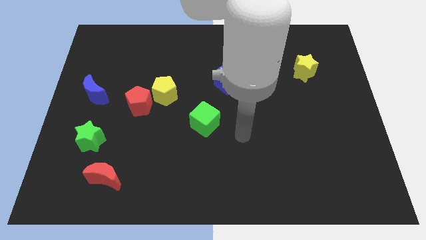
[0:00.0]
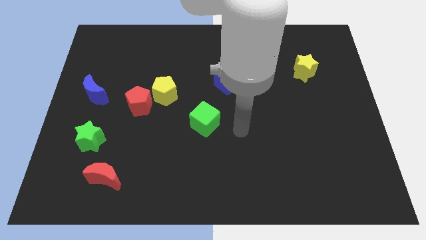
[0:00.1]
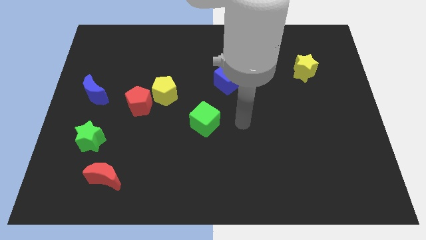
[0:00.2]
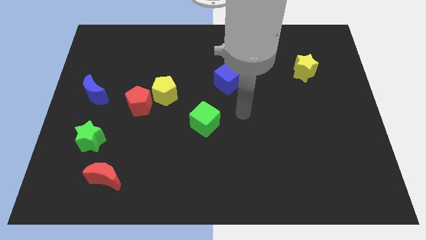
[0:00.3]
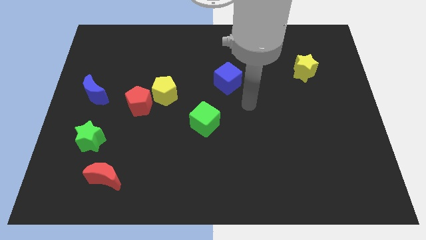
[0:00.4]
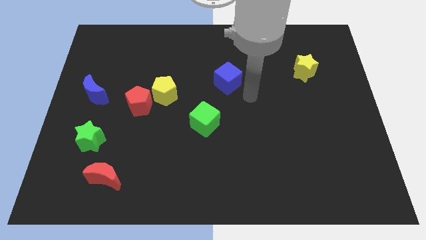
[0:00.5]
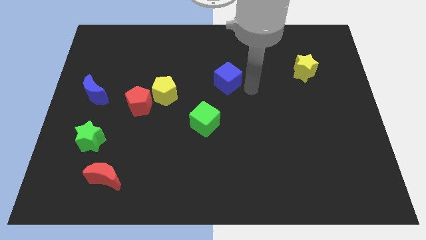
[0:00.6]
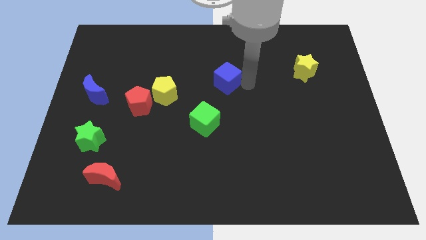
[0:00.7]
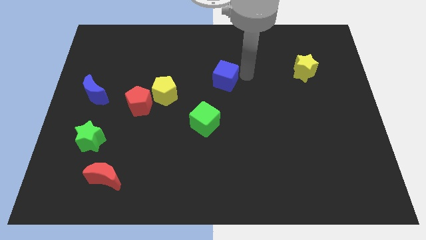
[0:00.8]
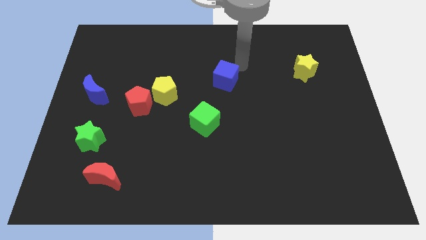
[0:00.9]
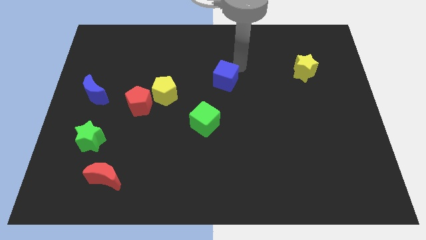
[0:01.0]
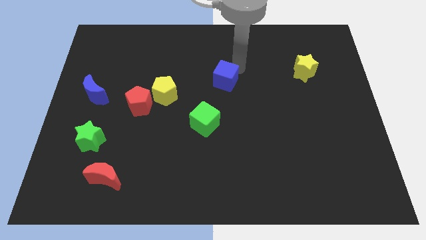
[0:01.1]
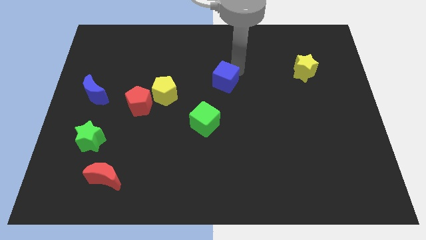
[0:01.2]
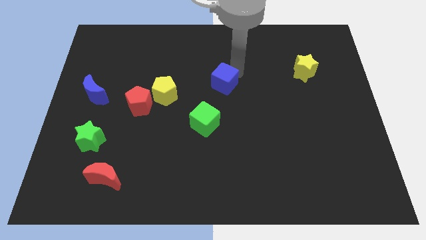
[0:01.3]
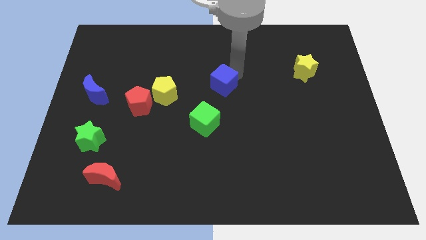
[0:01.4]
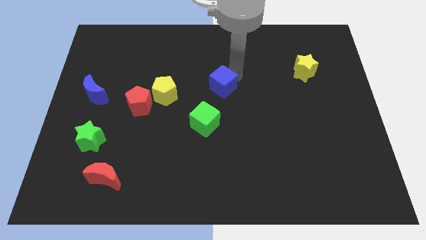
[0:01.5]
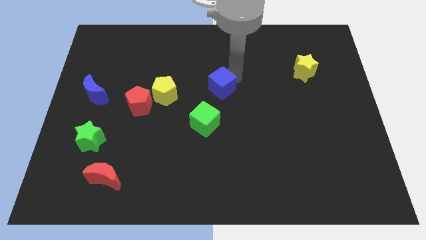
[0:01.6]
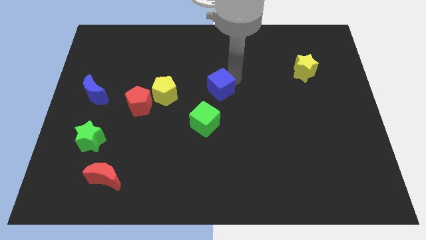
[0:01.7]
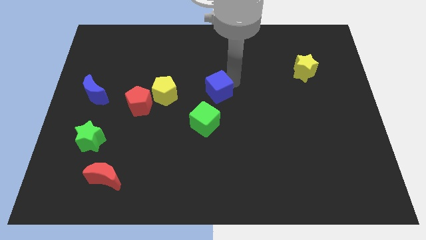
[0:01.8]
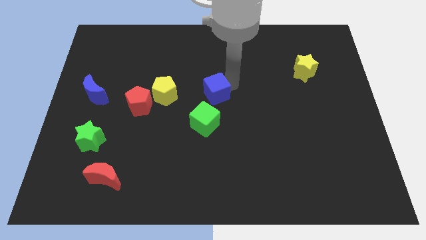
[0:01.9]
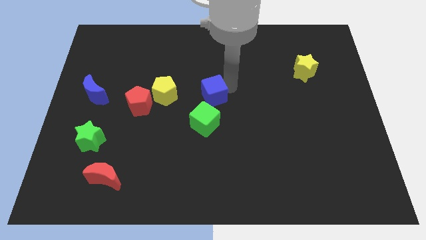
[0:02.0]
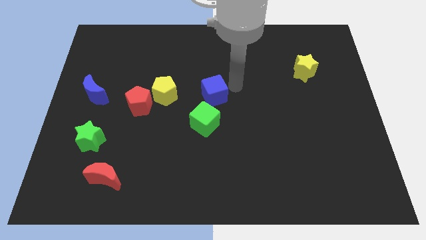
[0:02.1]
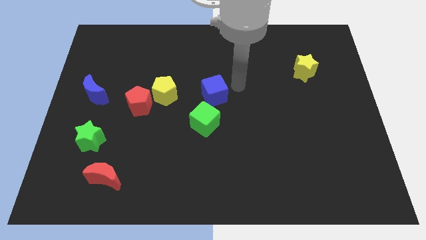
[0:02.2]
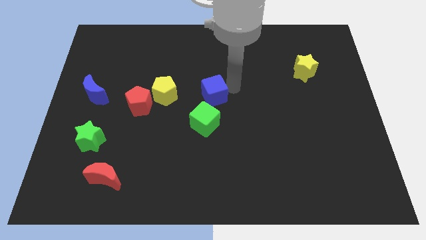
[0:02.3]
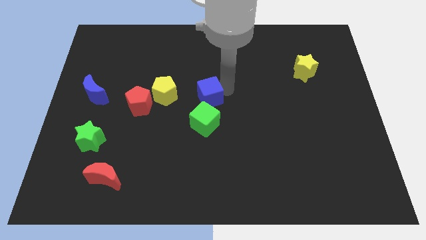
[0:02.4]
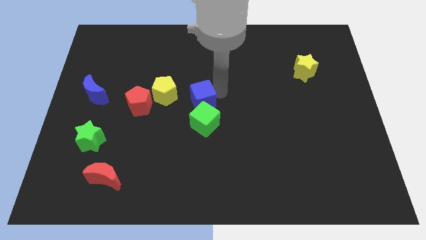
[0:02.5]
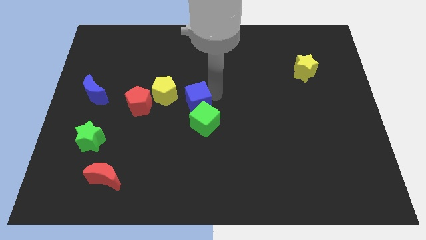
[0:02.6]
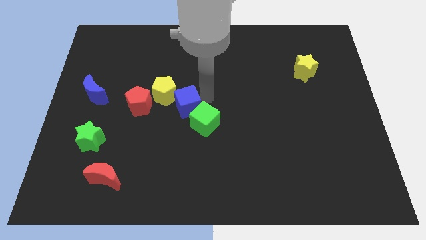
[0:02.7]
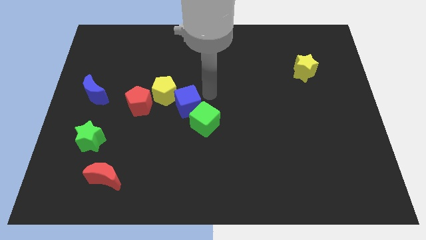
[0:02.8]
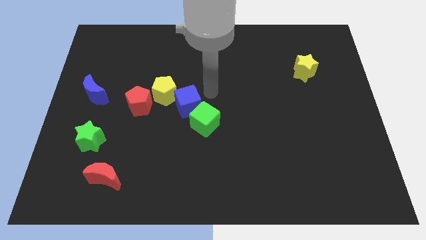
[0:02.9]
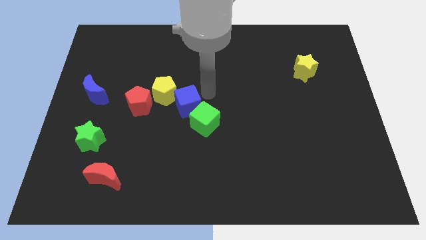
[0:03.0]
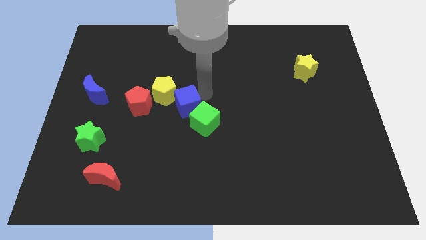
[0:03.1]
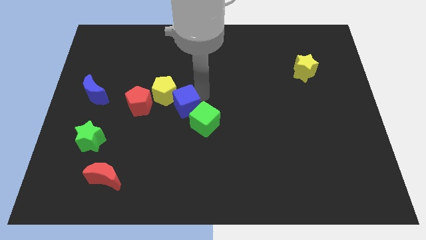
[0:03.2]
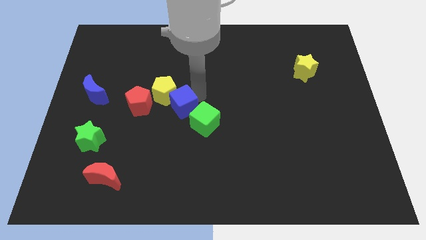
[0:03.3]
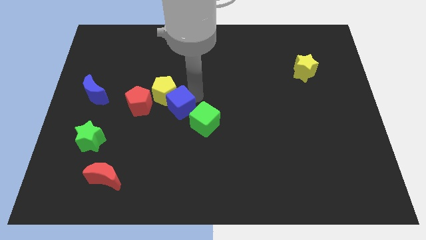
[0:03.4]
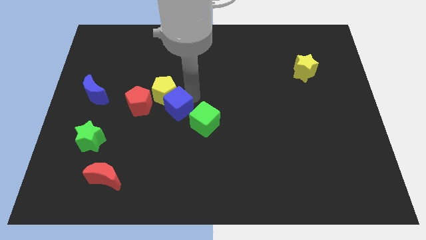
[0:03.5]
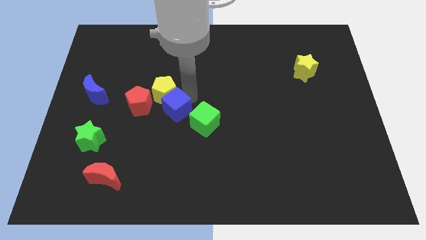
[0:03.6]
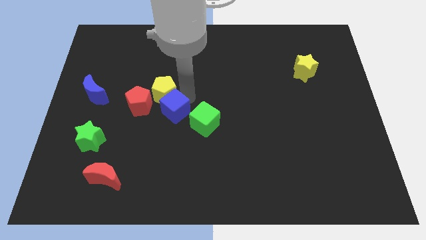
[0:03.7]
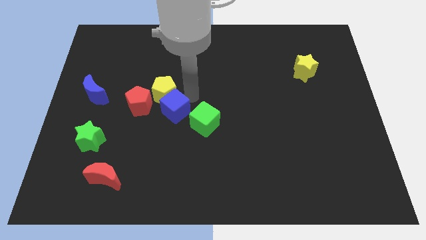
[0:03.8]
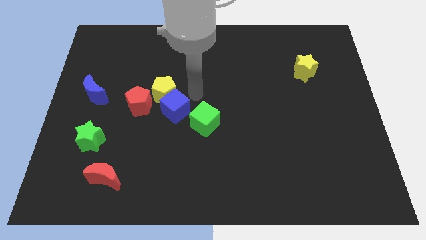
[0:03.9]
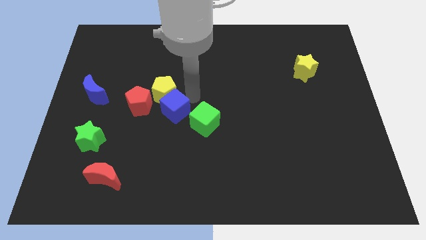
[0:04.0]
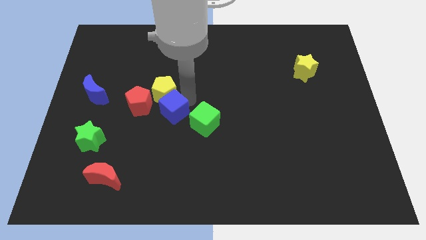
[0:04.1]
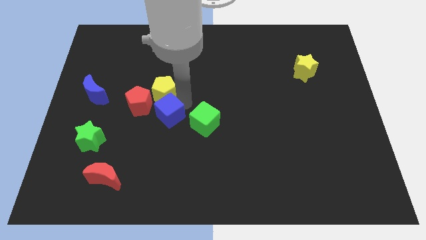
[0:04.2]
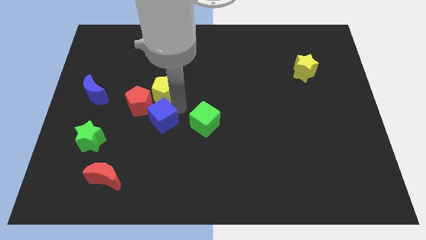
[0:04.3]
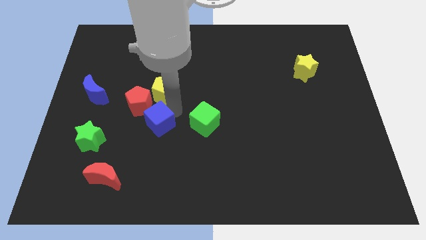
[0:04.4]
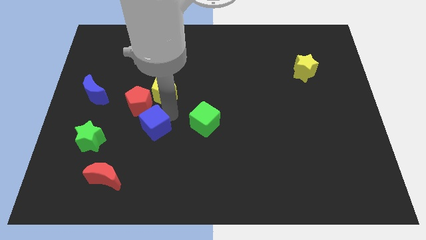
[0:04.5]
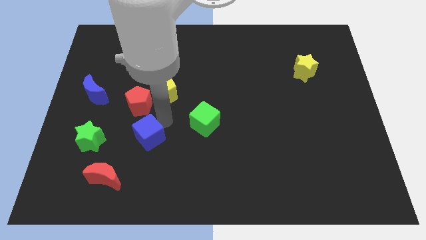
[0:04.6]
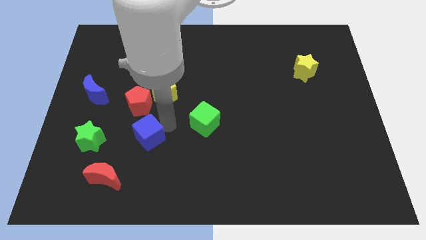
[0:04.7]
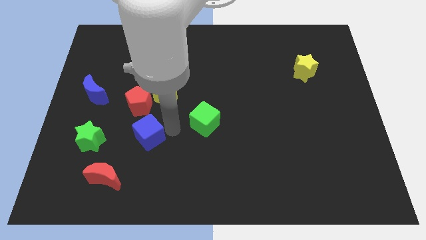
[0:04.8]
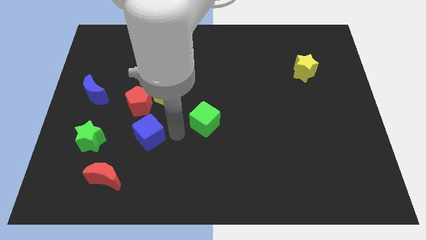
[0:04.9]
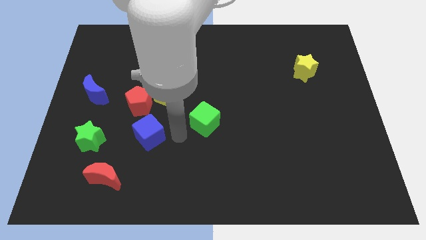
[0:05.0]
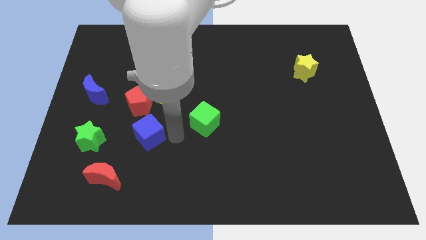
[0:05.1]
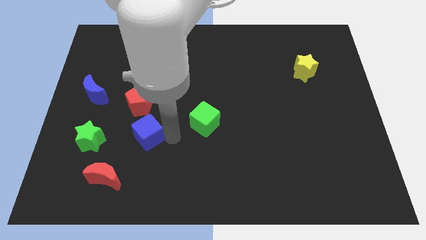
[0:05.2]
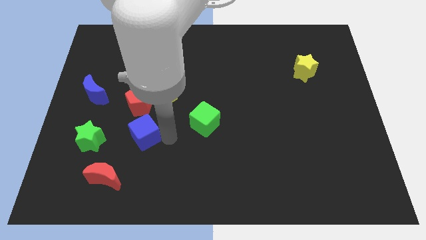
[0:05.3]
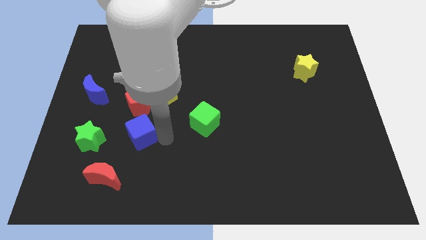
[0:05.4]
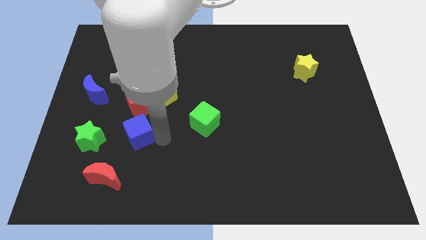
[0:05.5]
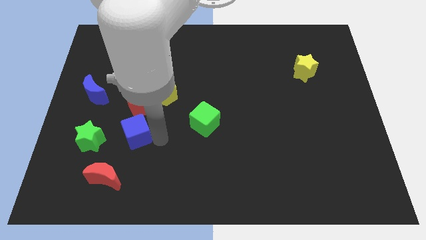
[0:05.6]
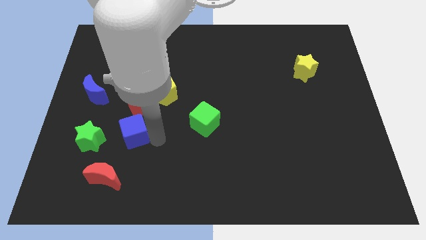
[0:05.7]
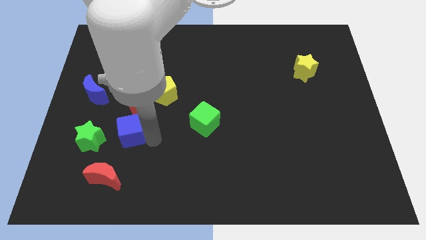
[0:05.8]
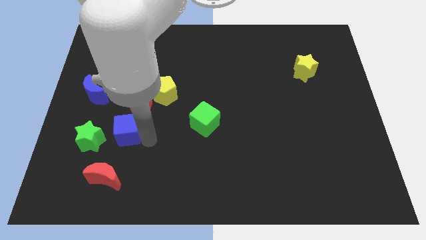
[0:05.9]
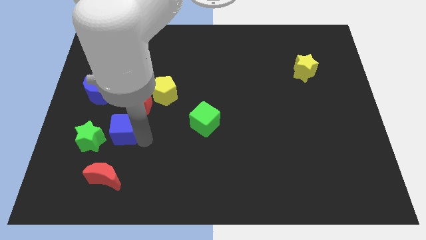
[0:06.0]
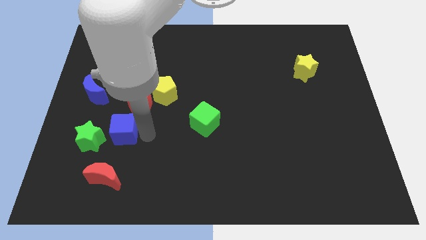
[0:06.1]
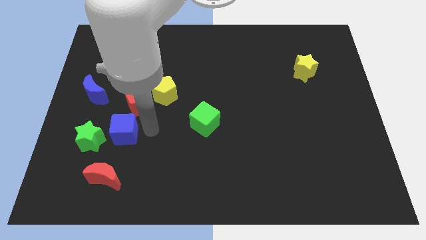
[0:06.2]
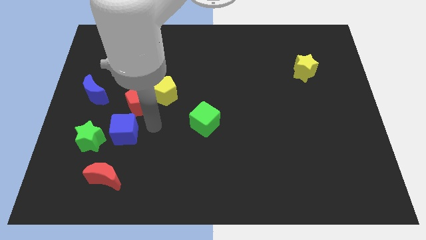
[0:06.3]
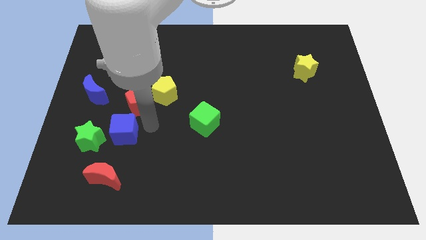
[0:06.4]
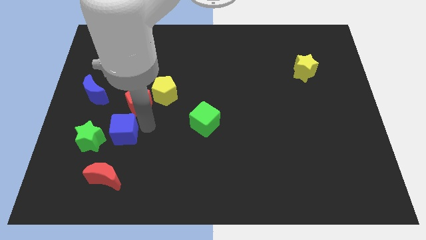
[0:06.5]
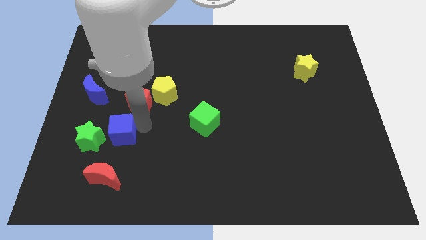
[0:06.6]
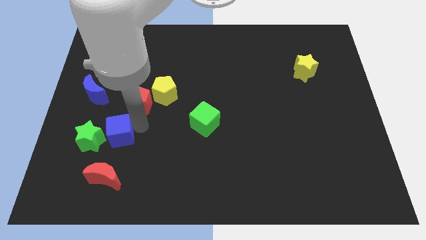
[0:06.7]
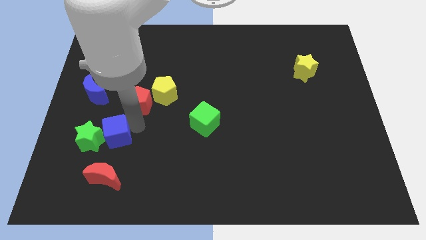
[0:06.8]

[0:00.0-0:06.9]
put the blue cube close to the green star
